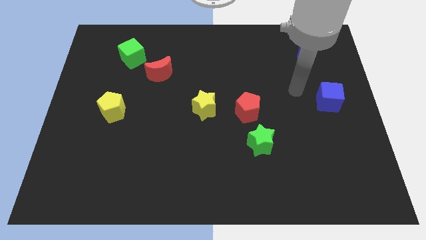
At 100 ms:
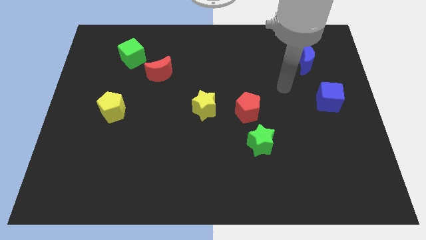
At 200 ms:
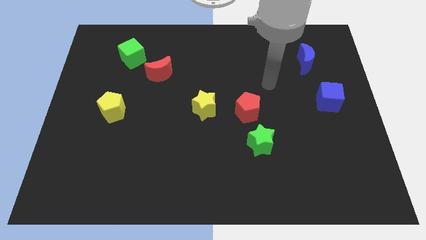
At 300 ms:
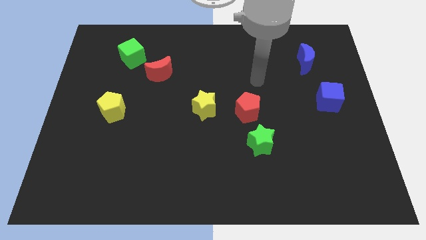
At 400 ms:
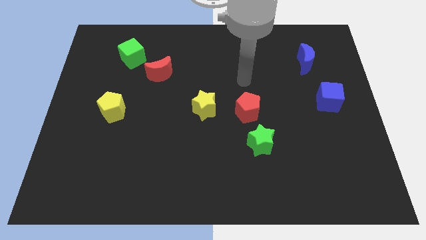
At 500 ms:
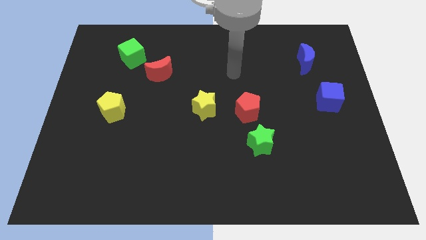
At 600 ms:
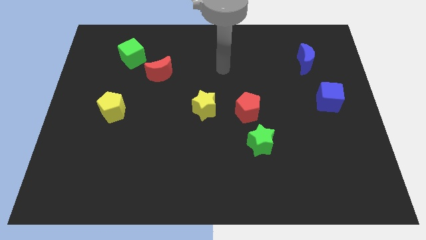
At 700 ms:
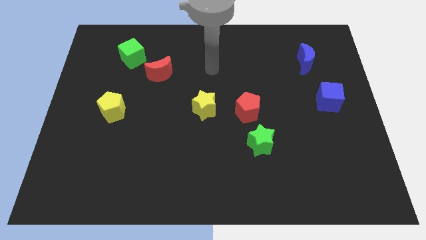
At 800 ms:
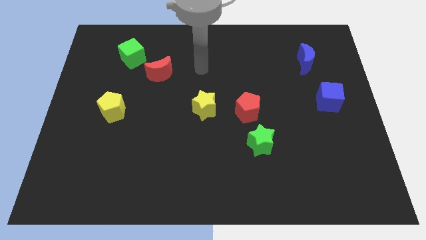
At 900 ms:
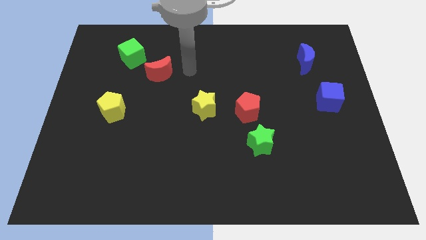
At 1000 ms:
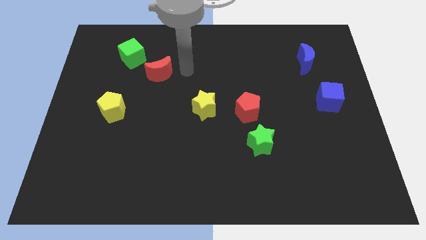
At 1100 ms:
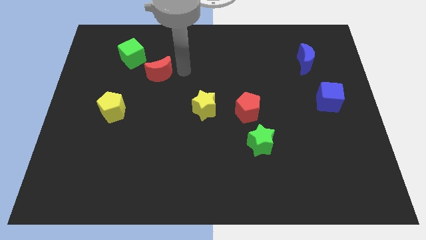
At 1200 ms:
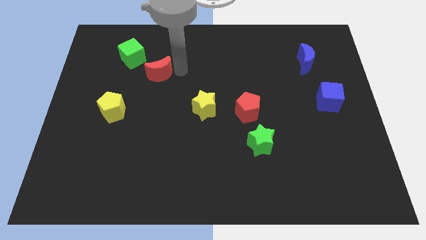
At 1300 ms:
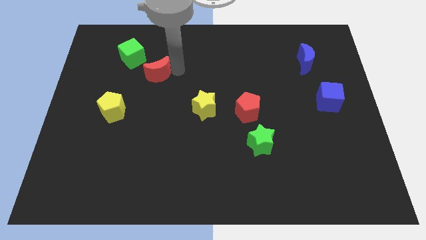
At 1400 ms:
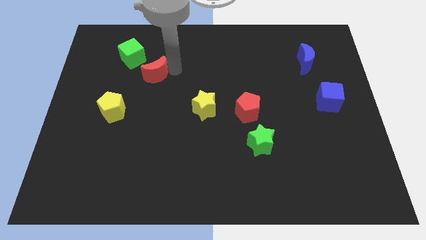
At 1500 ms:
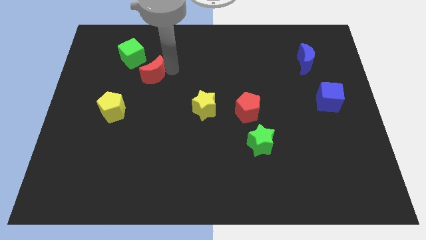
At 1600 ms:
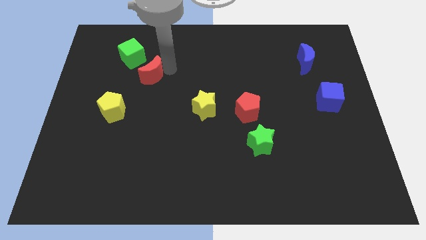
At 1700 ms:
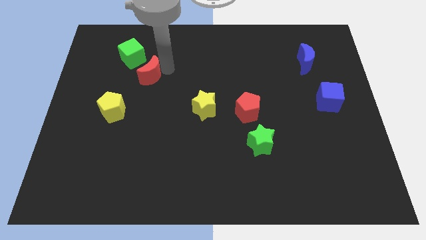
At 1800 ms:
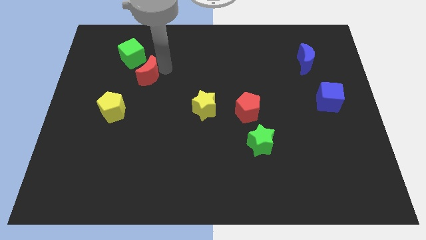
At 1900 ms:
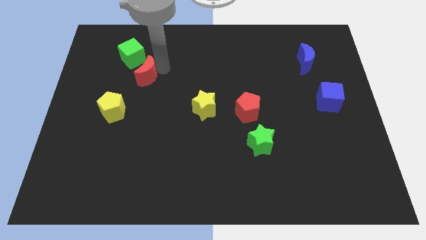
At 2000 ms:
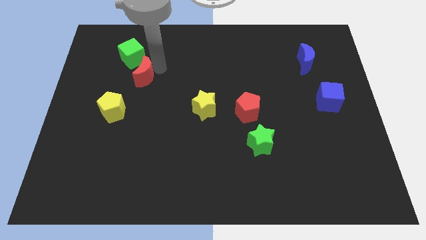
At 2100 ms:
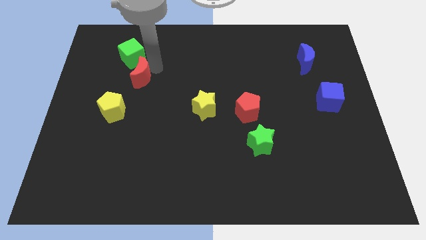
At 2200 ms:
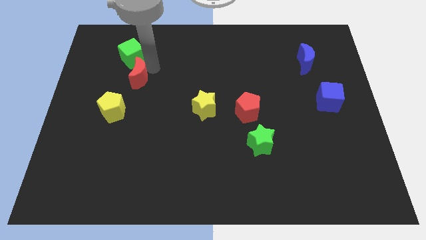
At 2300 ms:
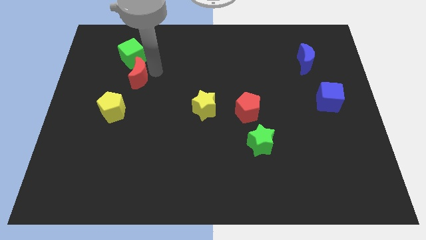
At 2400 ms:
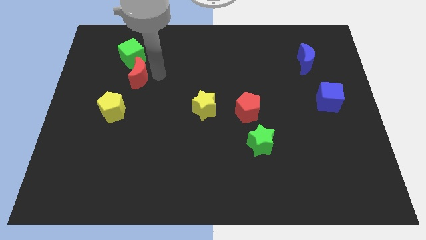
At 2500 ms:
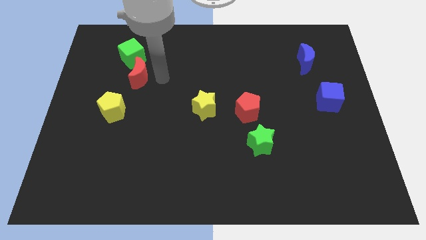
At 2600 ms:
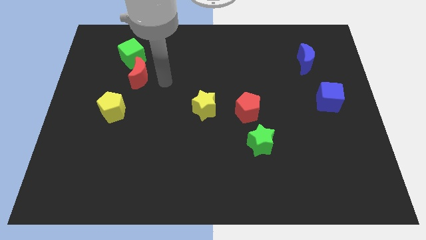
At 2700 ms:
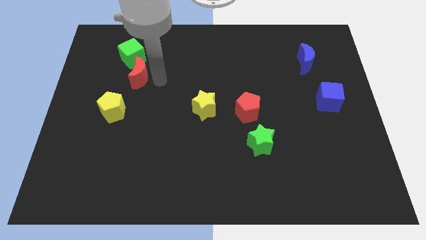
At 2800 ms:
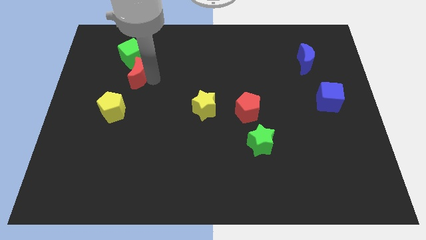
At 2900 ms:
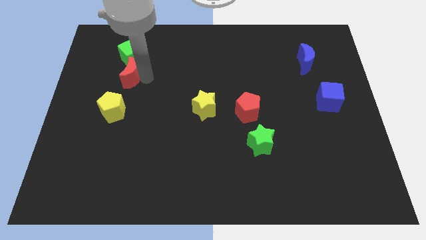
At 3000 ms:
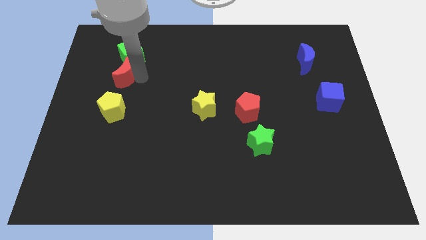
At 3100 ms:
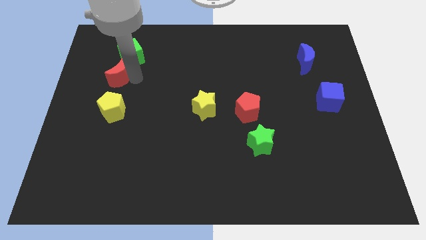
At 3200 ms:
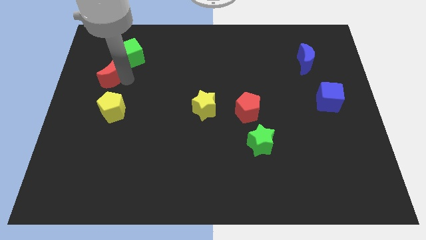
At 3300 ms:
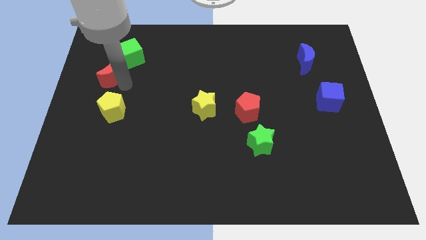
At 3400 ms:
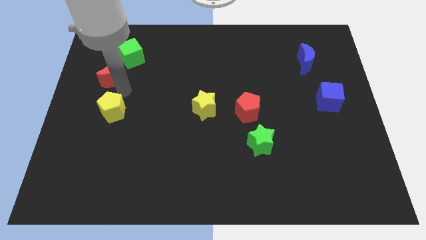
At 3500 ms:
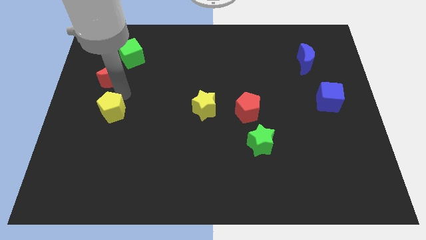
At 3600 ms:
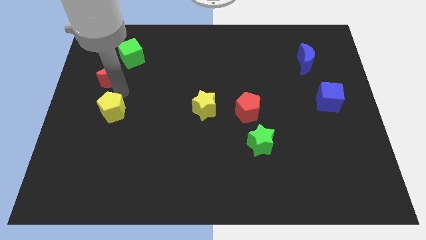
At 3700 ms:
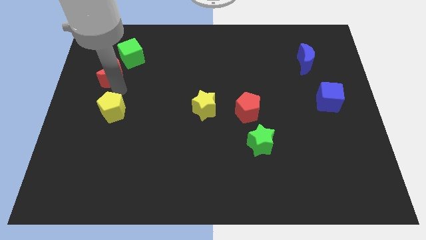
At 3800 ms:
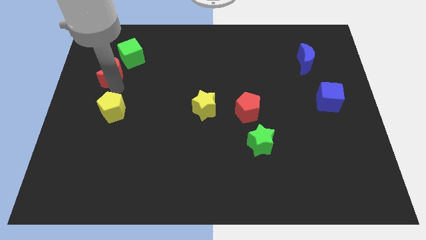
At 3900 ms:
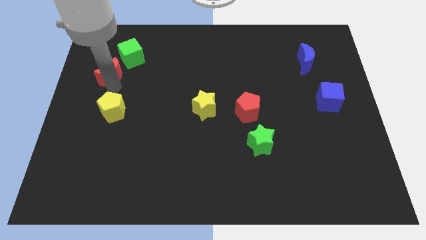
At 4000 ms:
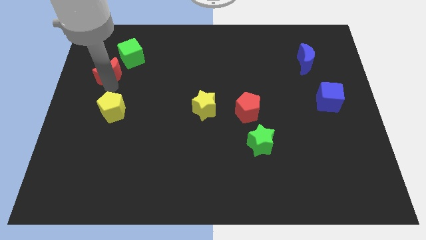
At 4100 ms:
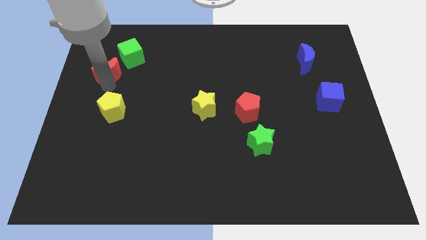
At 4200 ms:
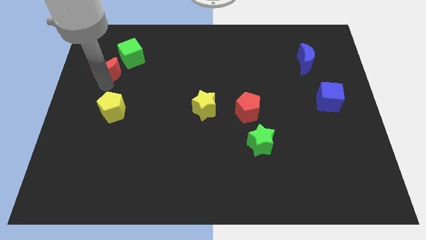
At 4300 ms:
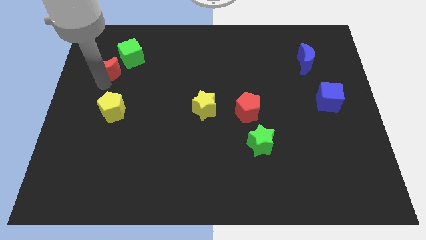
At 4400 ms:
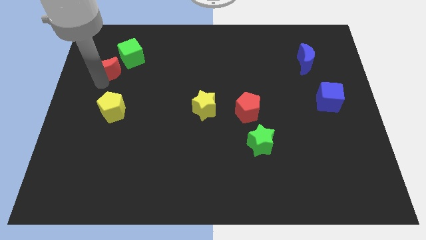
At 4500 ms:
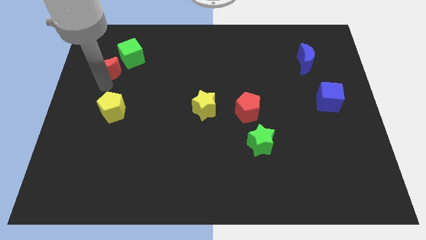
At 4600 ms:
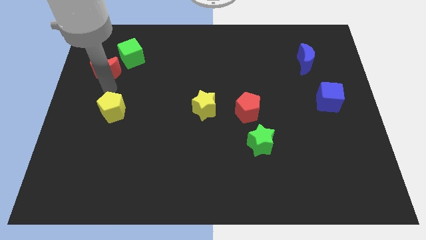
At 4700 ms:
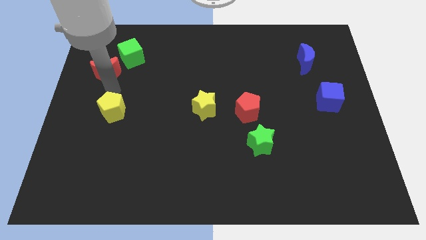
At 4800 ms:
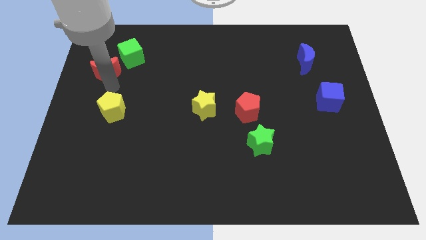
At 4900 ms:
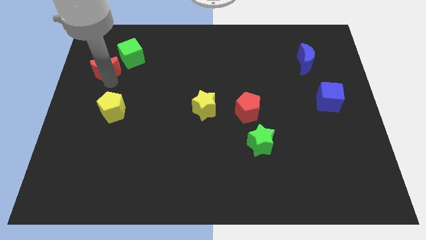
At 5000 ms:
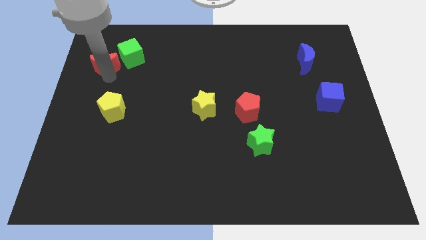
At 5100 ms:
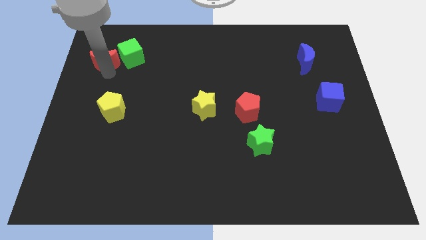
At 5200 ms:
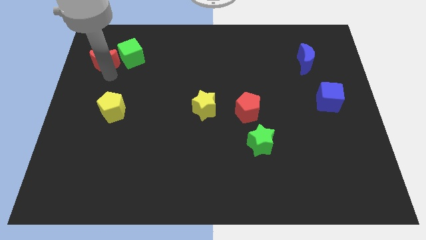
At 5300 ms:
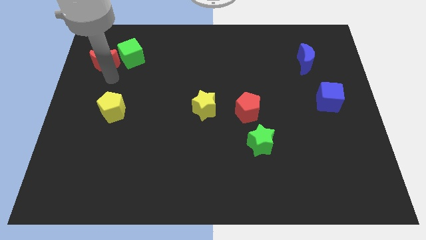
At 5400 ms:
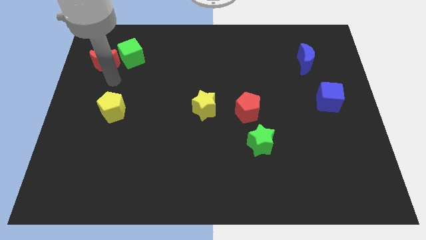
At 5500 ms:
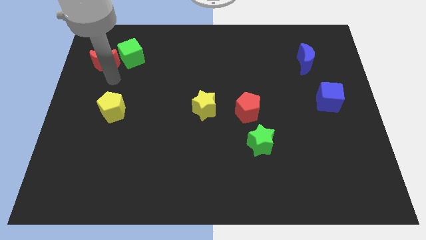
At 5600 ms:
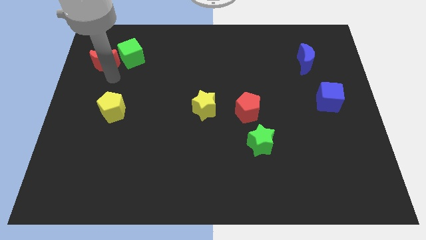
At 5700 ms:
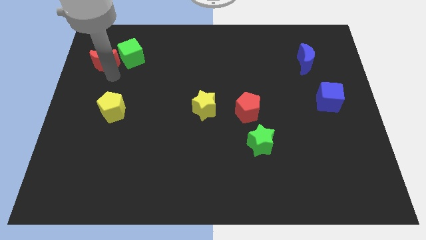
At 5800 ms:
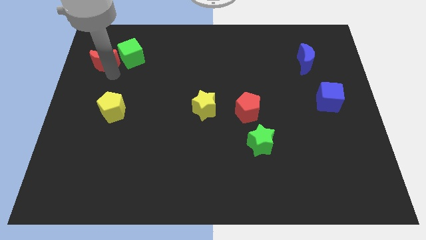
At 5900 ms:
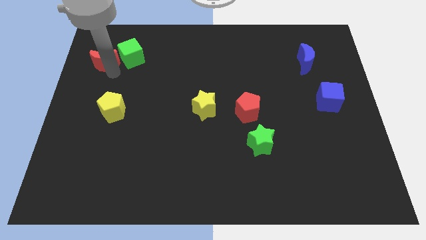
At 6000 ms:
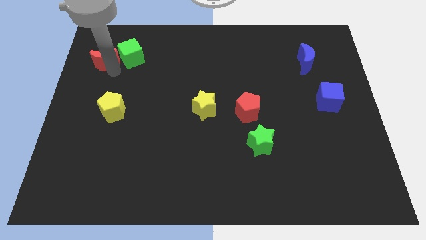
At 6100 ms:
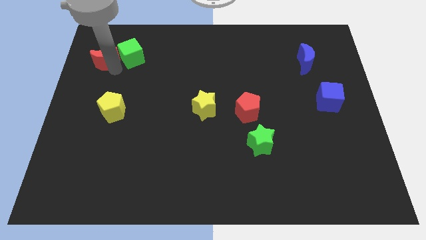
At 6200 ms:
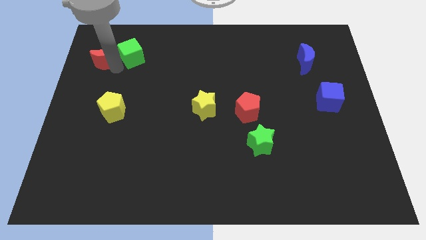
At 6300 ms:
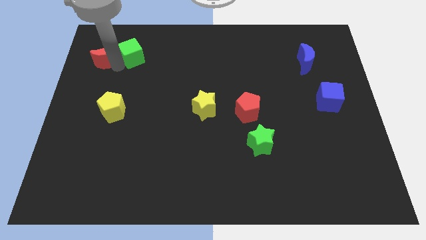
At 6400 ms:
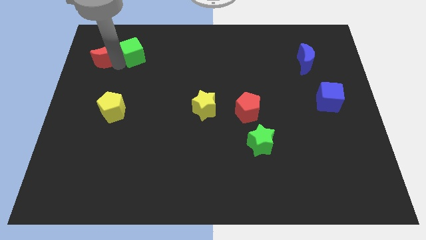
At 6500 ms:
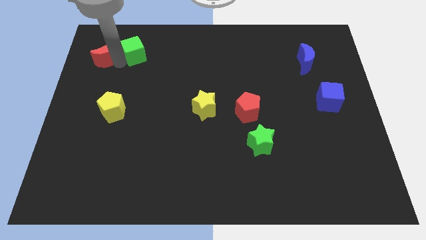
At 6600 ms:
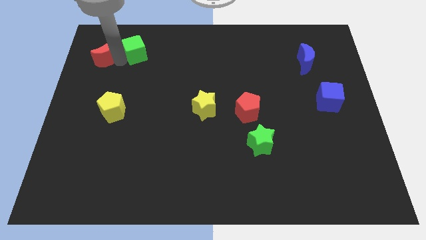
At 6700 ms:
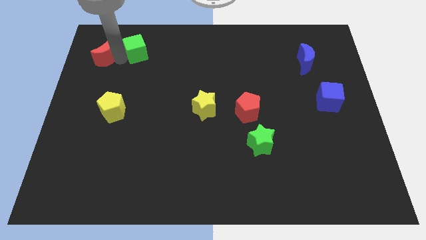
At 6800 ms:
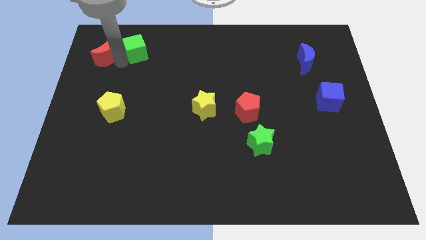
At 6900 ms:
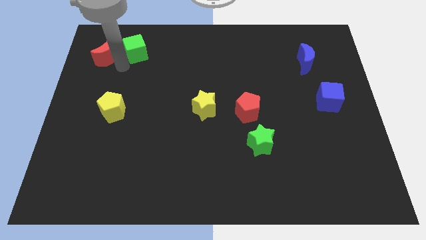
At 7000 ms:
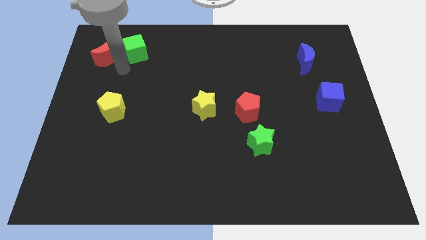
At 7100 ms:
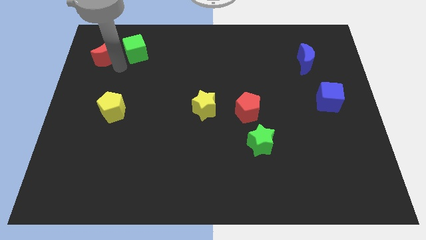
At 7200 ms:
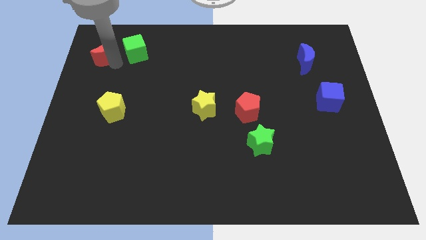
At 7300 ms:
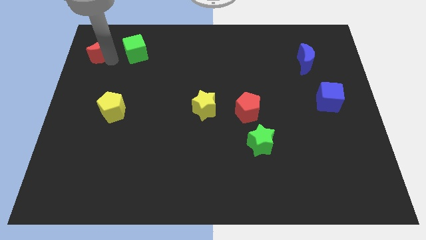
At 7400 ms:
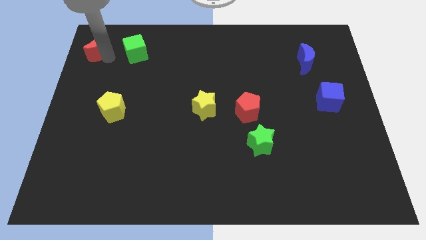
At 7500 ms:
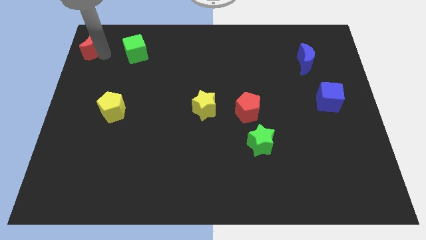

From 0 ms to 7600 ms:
put the red moon to the top left
